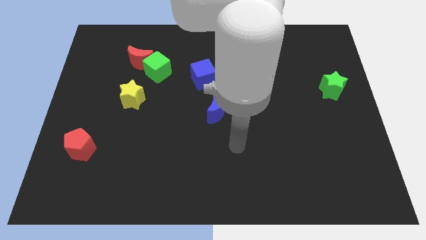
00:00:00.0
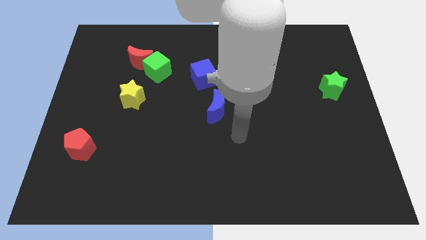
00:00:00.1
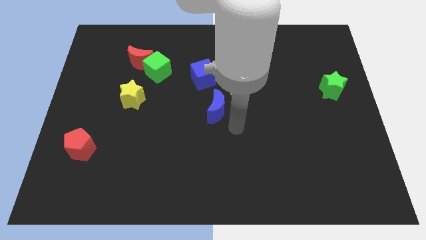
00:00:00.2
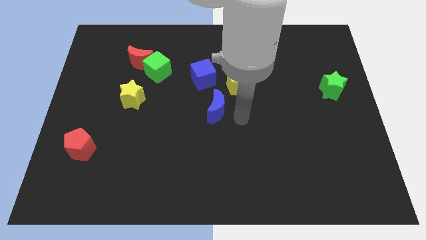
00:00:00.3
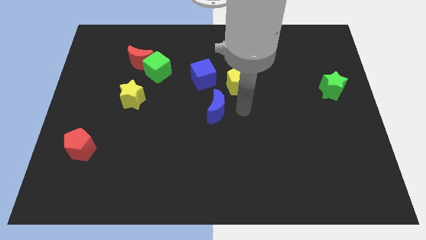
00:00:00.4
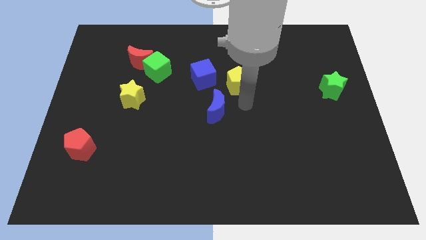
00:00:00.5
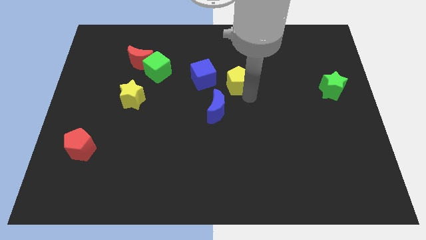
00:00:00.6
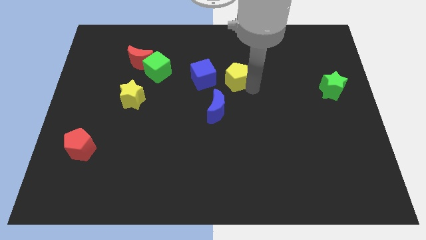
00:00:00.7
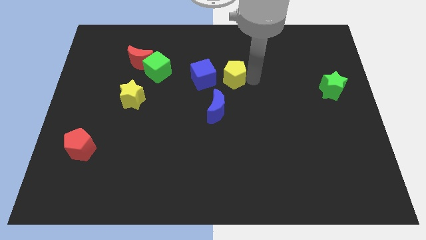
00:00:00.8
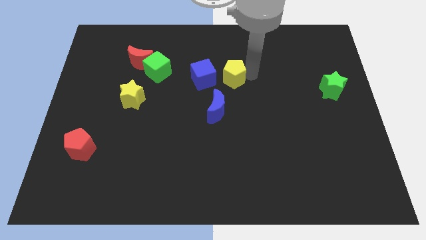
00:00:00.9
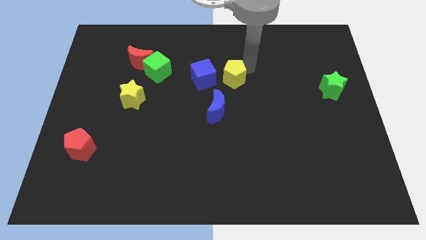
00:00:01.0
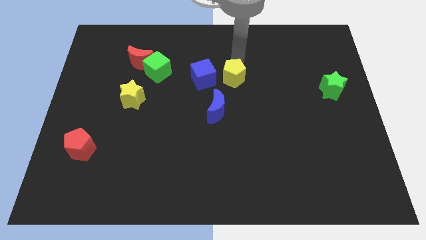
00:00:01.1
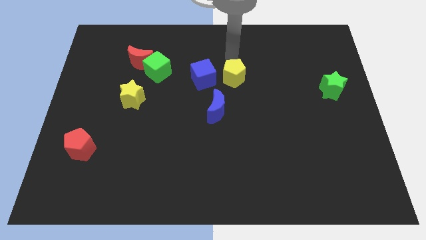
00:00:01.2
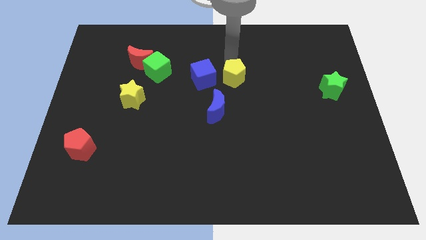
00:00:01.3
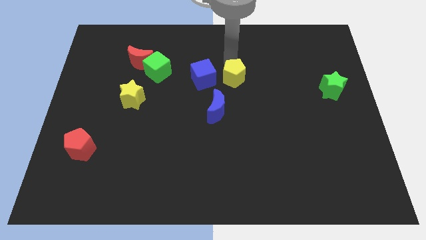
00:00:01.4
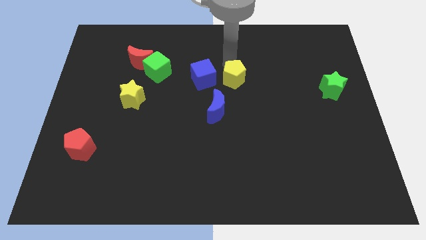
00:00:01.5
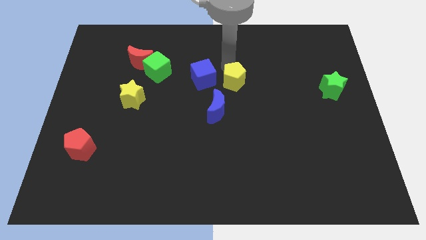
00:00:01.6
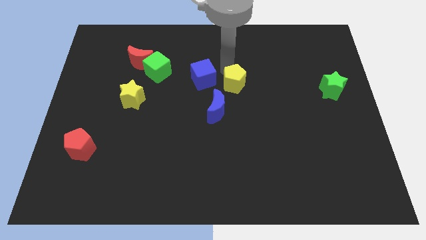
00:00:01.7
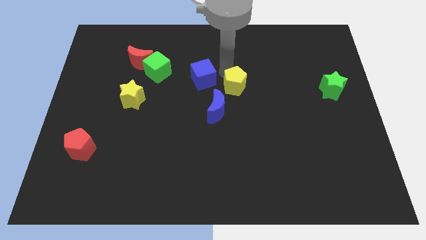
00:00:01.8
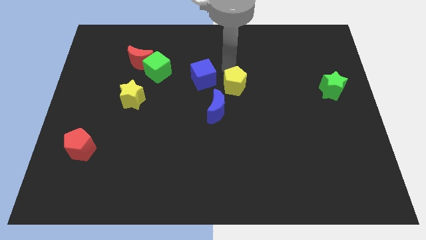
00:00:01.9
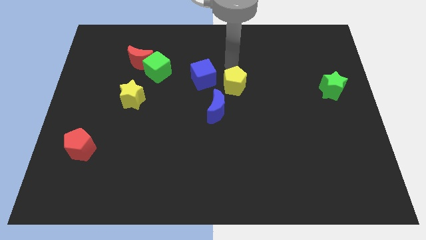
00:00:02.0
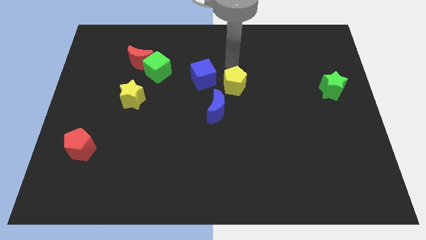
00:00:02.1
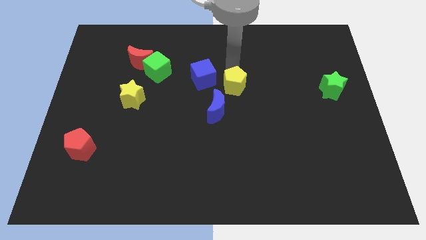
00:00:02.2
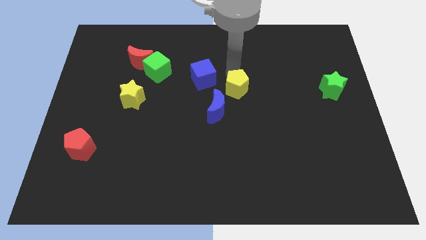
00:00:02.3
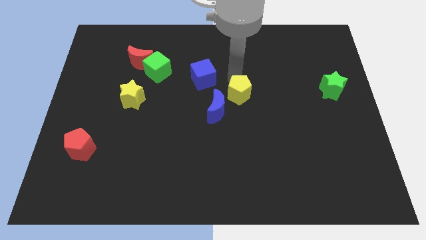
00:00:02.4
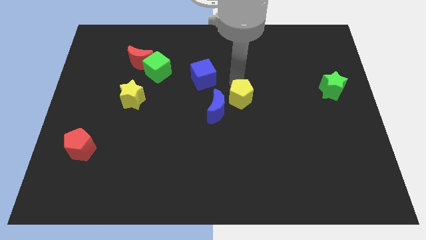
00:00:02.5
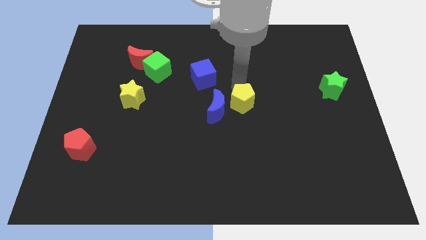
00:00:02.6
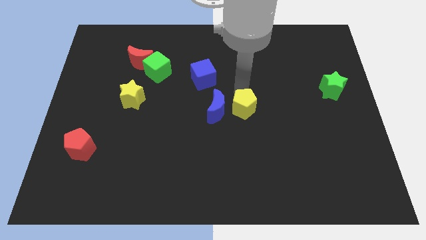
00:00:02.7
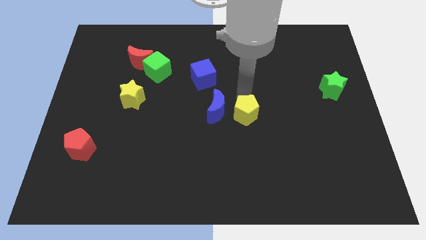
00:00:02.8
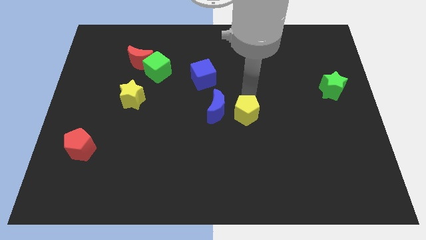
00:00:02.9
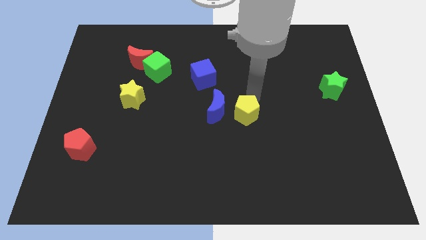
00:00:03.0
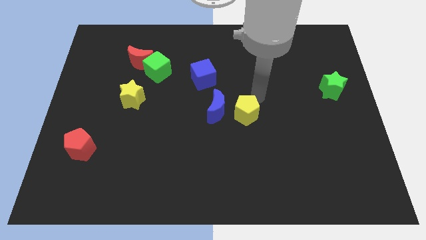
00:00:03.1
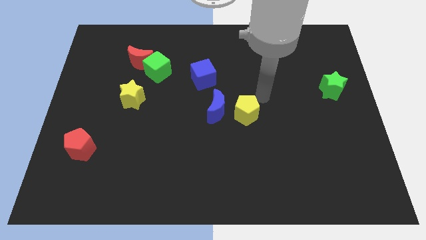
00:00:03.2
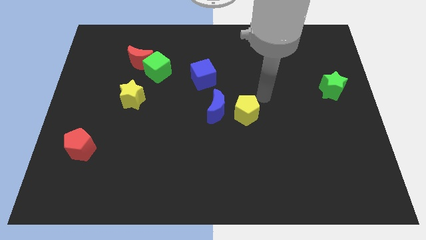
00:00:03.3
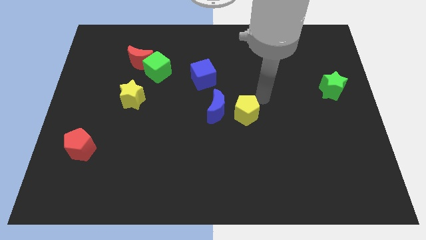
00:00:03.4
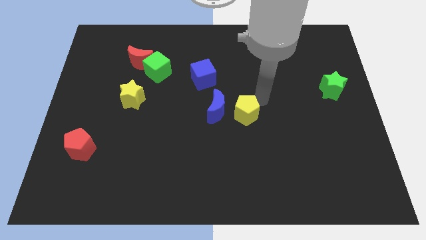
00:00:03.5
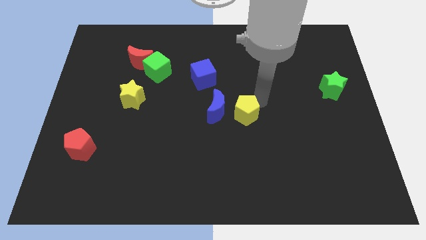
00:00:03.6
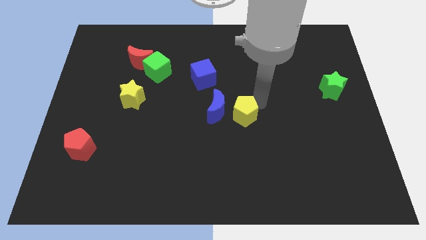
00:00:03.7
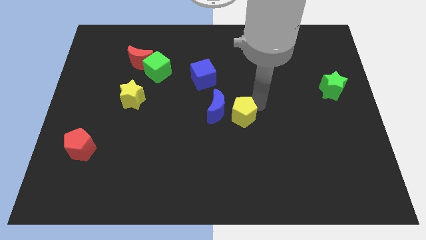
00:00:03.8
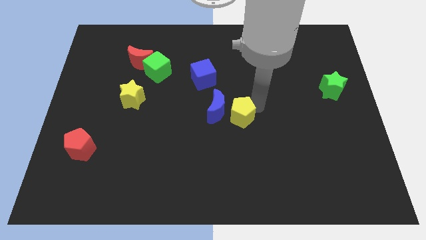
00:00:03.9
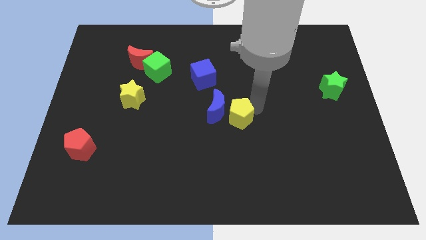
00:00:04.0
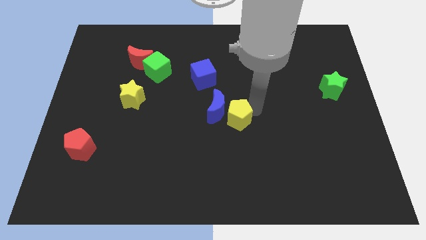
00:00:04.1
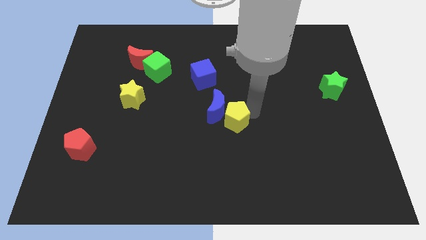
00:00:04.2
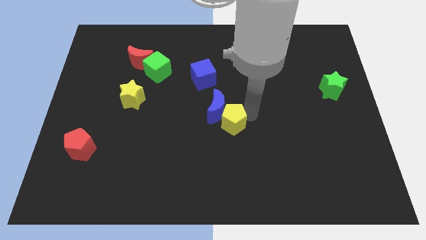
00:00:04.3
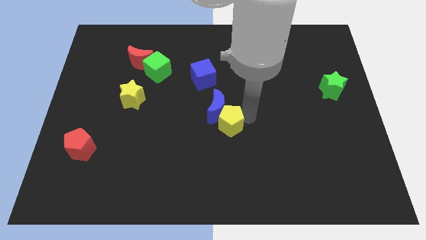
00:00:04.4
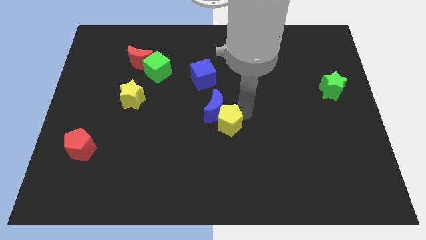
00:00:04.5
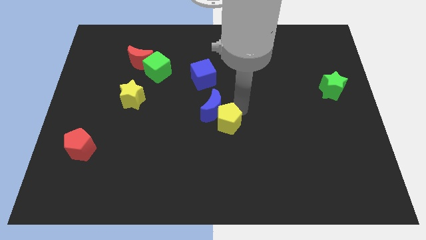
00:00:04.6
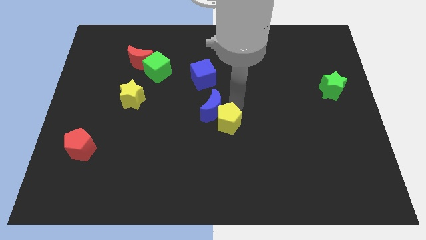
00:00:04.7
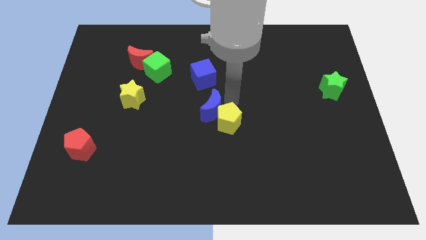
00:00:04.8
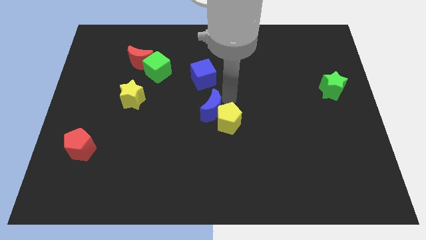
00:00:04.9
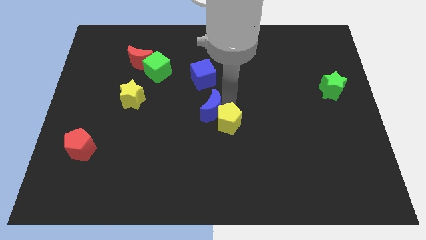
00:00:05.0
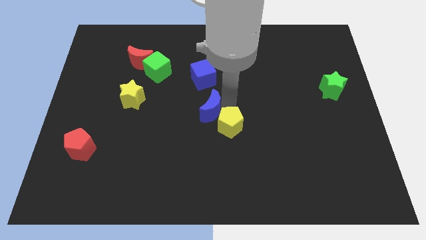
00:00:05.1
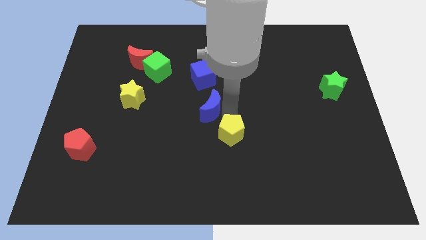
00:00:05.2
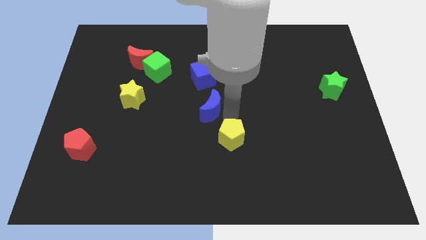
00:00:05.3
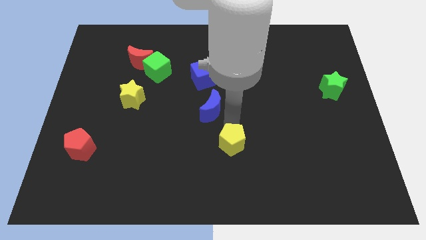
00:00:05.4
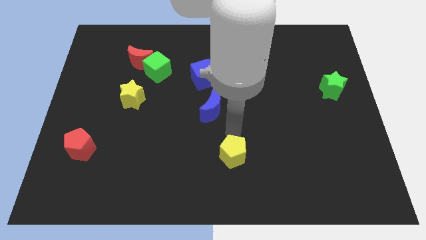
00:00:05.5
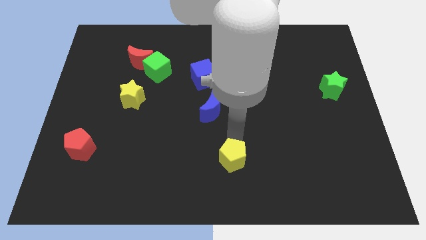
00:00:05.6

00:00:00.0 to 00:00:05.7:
put the yellow pentagon to the bottom

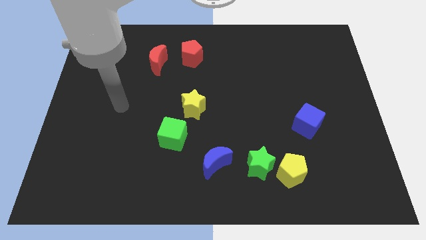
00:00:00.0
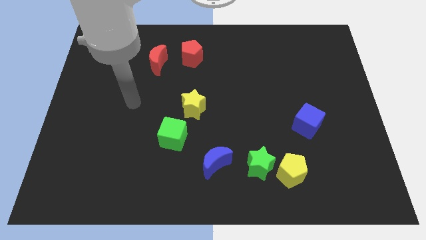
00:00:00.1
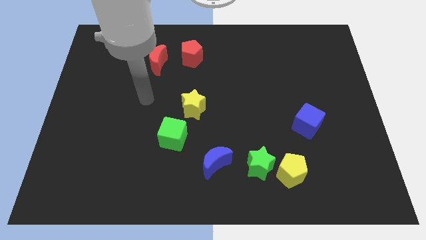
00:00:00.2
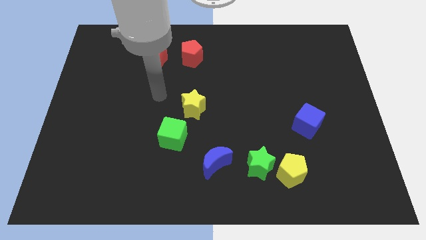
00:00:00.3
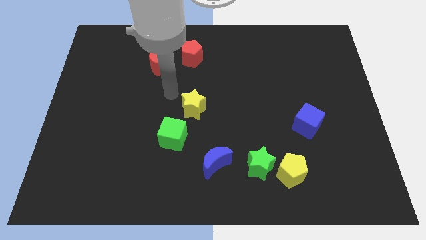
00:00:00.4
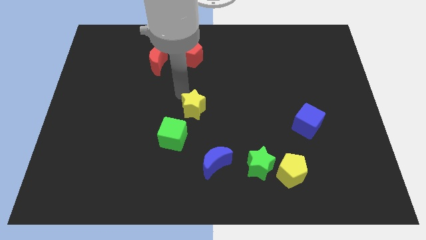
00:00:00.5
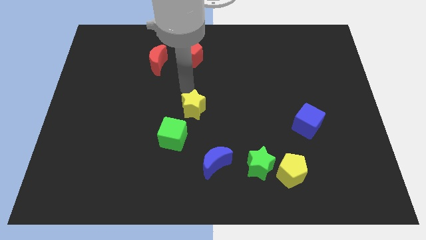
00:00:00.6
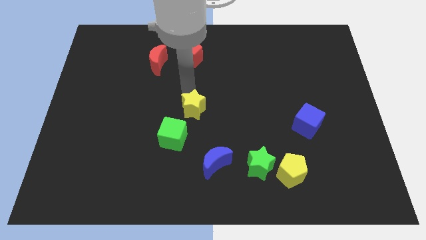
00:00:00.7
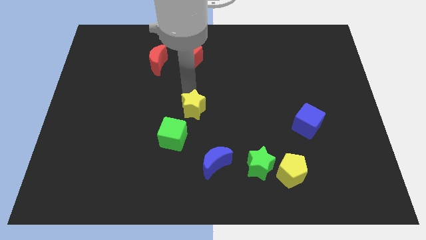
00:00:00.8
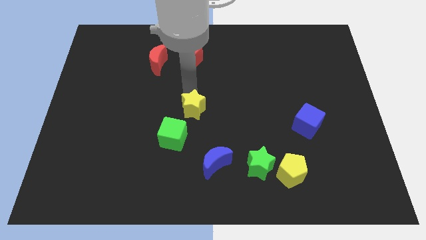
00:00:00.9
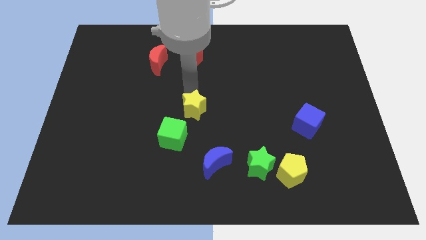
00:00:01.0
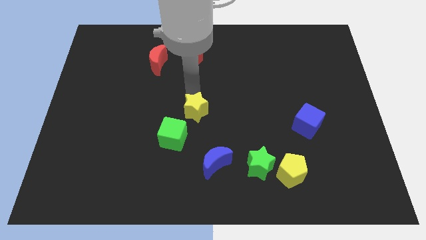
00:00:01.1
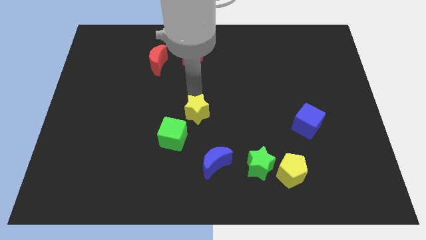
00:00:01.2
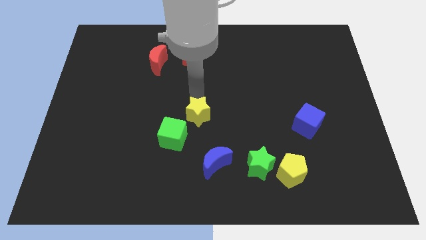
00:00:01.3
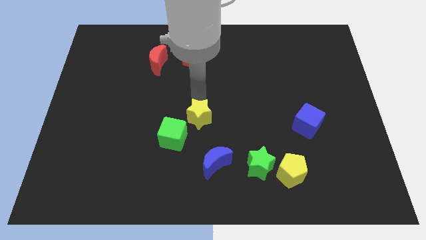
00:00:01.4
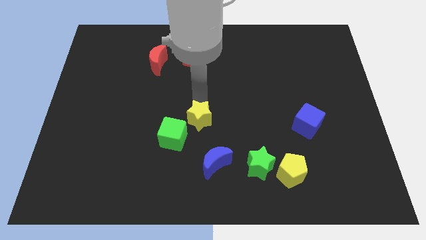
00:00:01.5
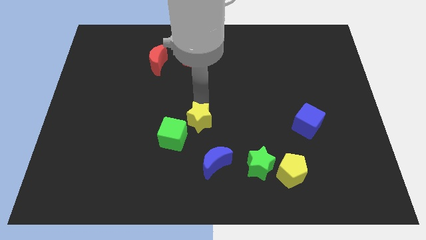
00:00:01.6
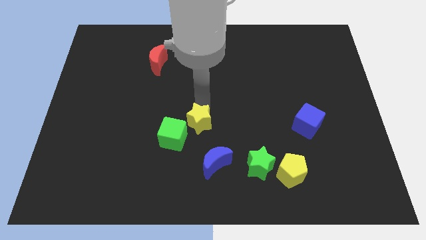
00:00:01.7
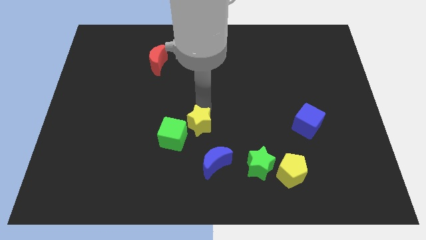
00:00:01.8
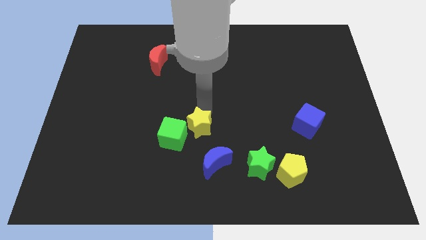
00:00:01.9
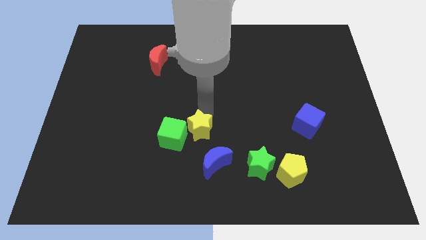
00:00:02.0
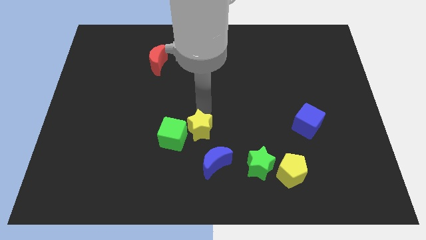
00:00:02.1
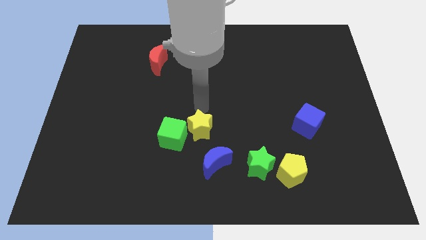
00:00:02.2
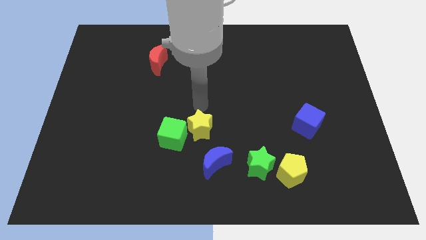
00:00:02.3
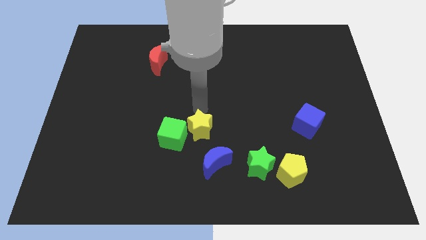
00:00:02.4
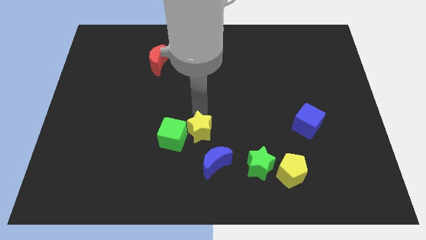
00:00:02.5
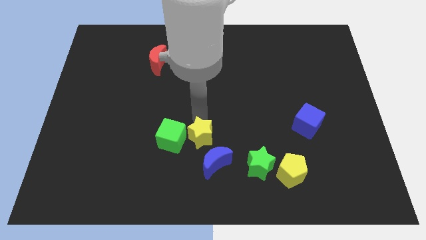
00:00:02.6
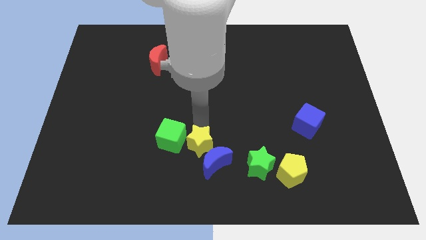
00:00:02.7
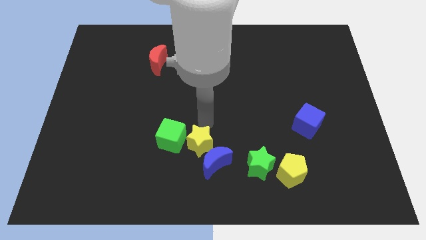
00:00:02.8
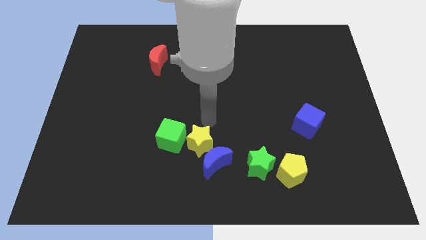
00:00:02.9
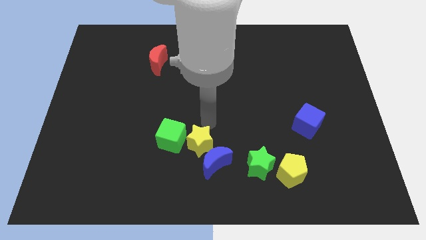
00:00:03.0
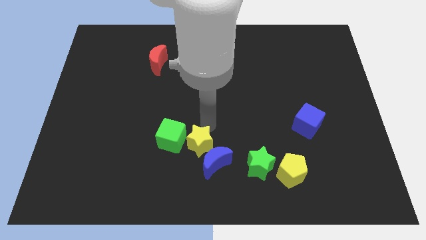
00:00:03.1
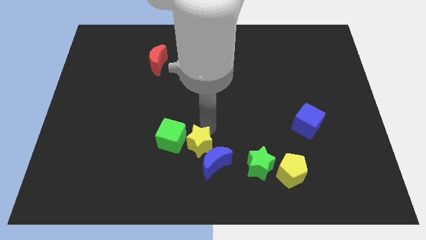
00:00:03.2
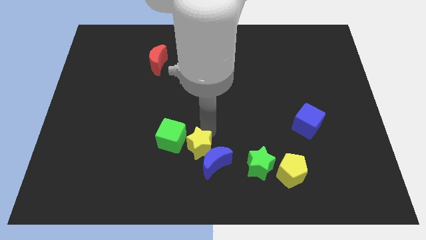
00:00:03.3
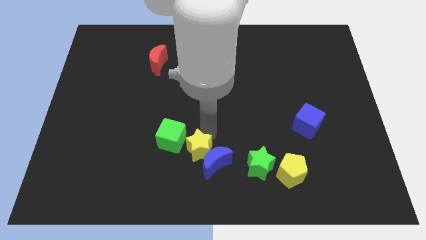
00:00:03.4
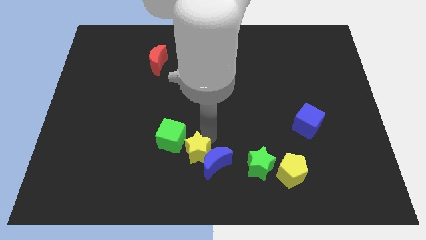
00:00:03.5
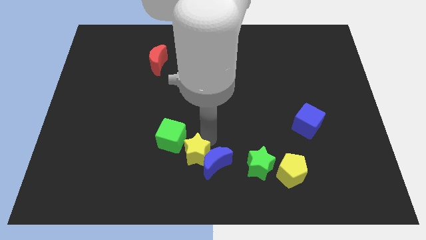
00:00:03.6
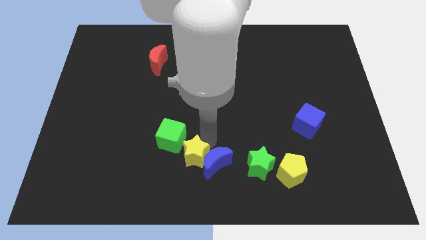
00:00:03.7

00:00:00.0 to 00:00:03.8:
put the yellow star to the bottom side
